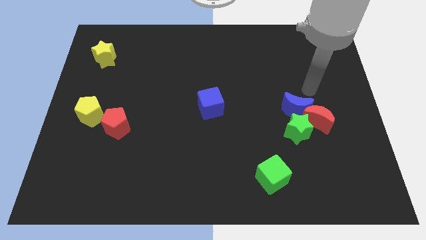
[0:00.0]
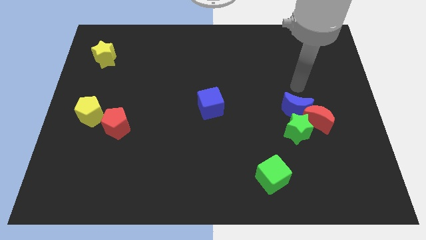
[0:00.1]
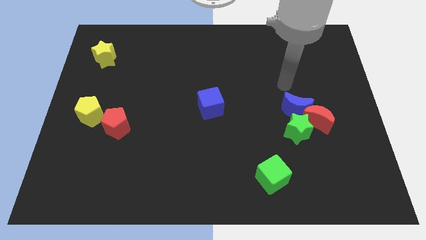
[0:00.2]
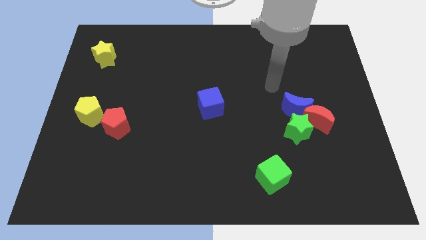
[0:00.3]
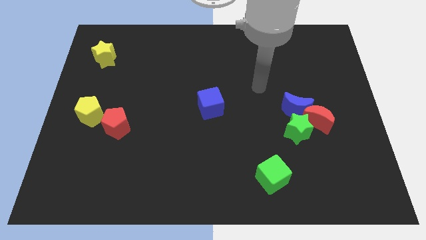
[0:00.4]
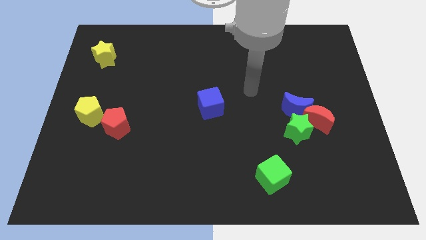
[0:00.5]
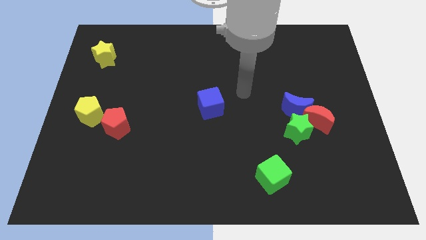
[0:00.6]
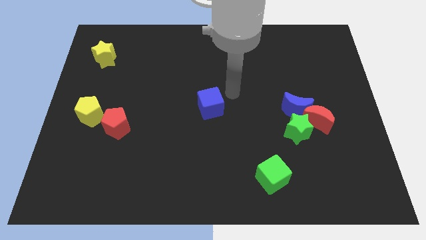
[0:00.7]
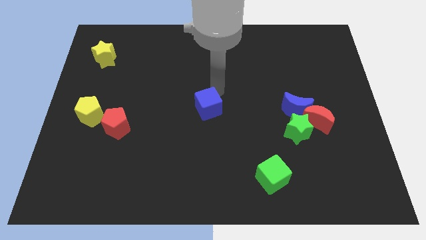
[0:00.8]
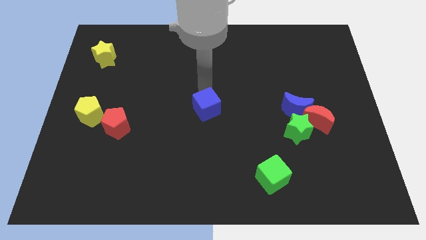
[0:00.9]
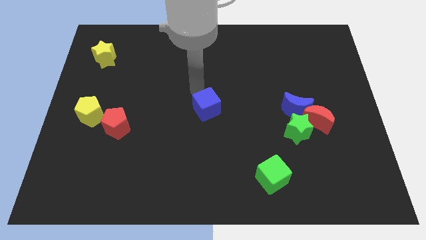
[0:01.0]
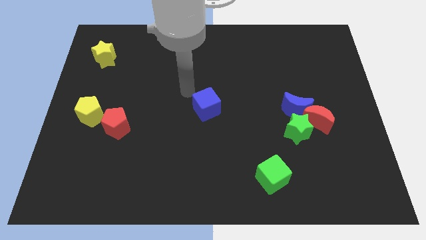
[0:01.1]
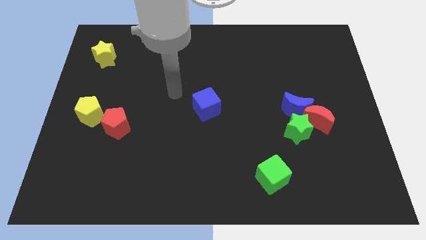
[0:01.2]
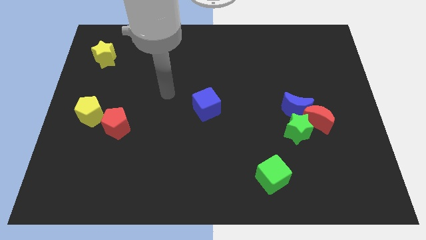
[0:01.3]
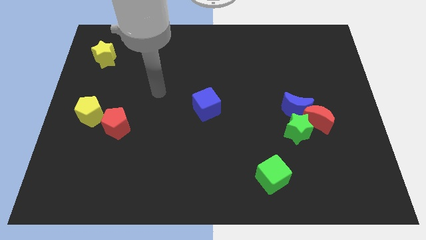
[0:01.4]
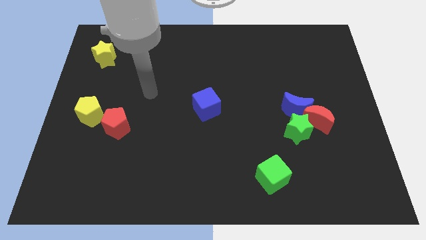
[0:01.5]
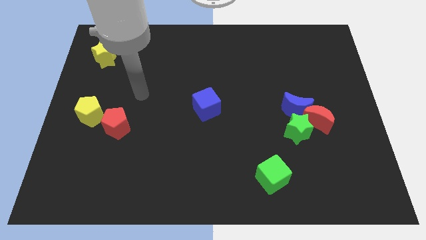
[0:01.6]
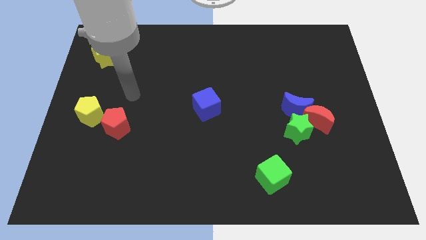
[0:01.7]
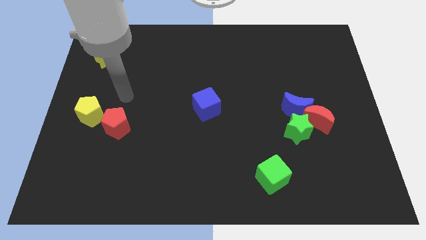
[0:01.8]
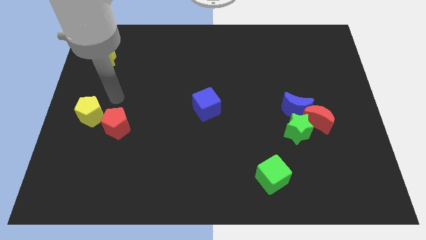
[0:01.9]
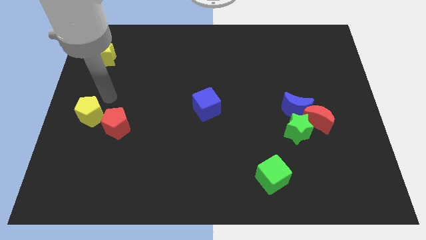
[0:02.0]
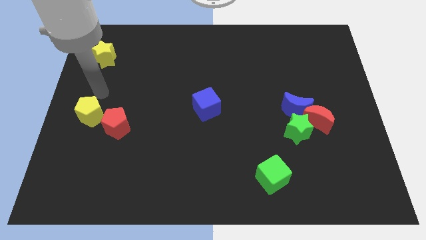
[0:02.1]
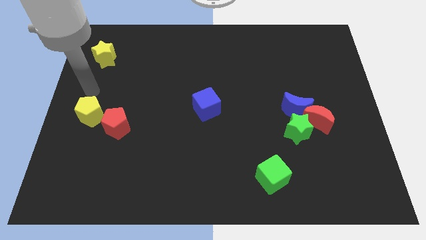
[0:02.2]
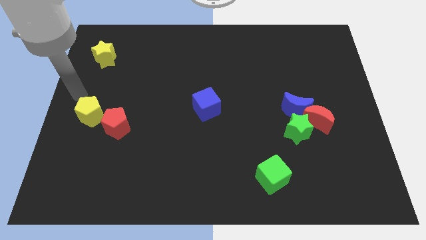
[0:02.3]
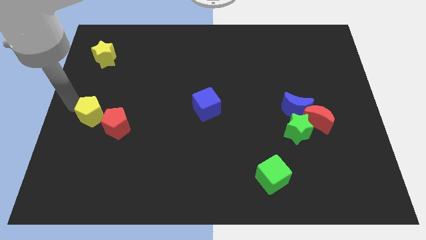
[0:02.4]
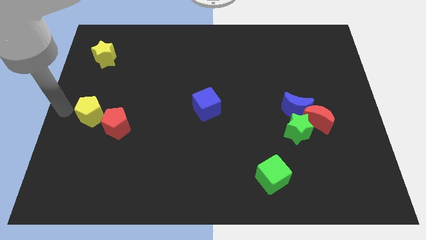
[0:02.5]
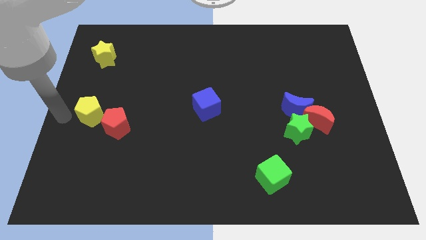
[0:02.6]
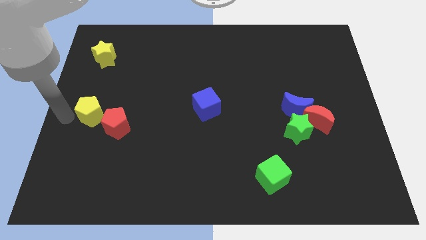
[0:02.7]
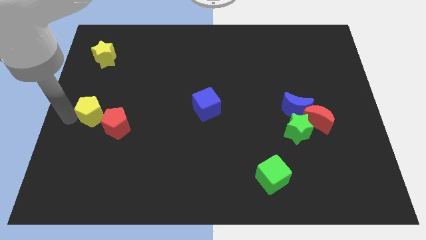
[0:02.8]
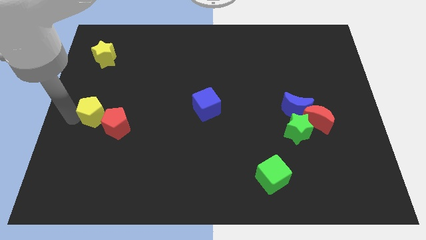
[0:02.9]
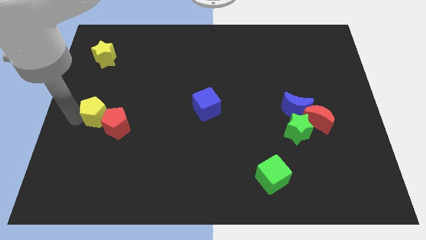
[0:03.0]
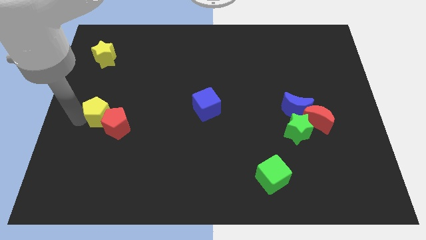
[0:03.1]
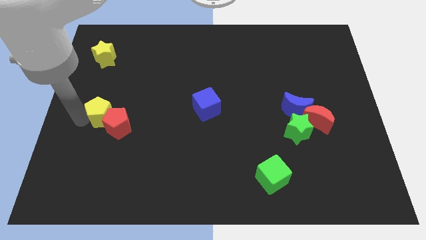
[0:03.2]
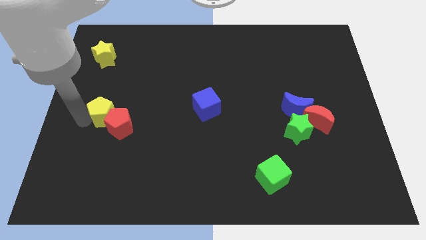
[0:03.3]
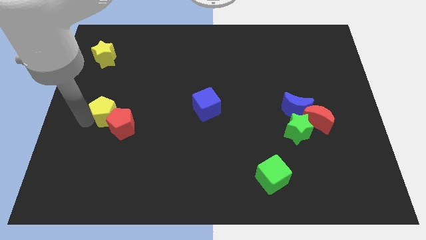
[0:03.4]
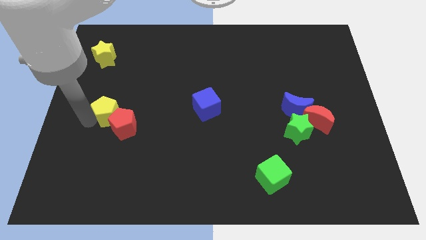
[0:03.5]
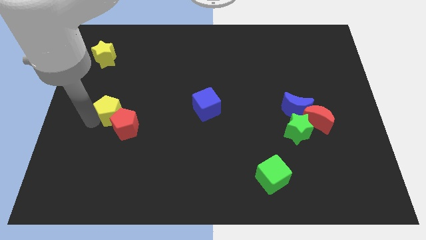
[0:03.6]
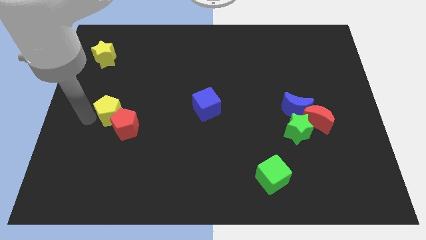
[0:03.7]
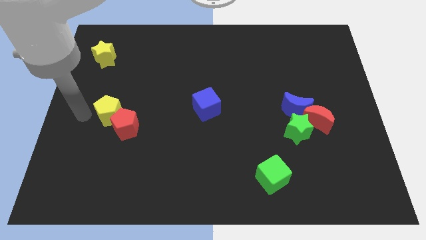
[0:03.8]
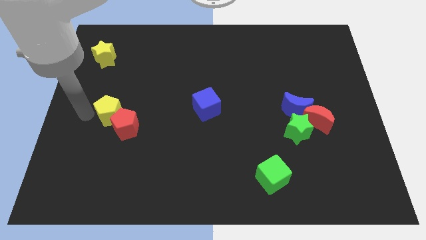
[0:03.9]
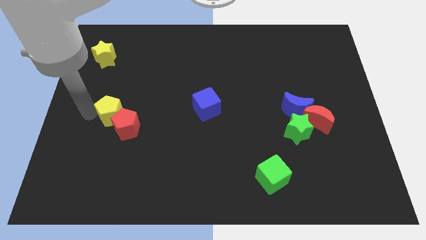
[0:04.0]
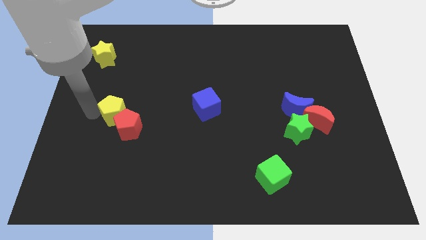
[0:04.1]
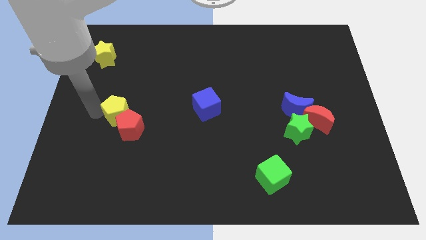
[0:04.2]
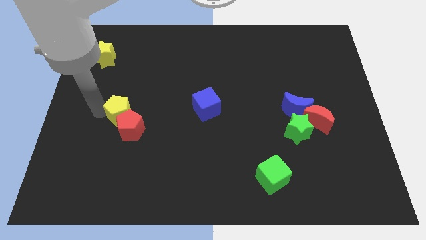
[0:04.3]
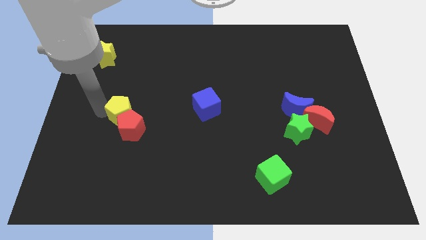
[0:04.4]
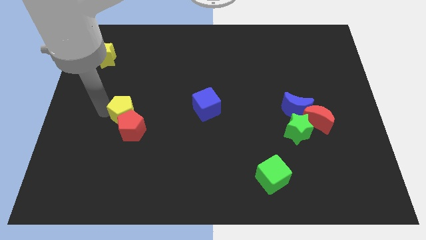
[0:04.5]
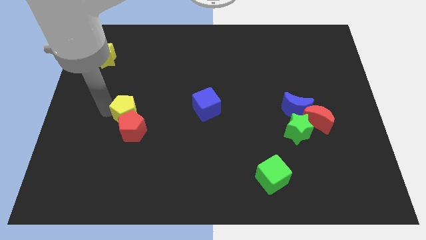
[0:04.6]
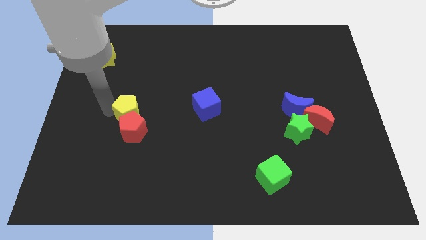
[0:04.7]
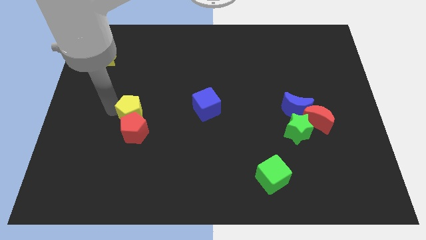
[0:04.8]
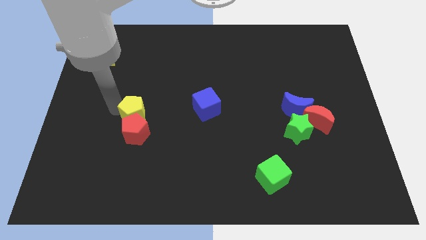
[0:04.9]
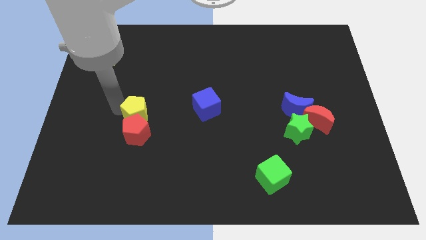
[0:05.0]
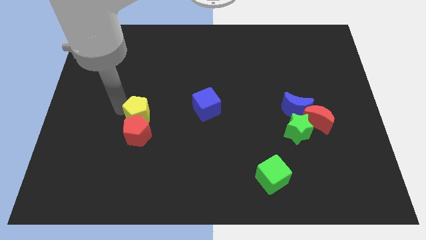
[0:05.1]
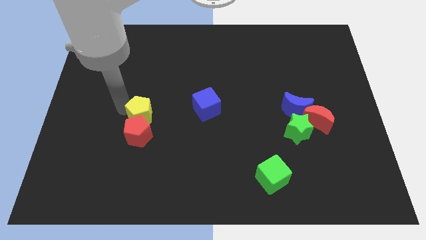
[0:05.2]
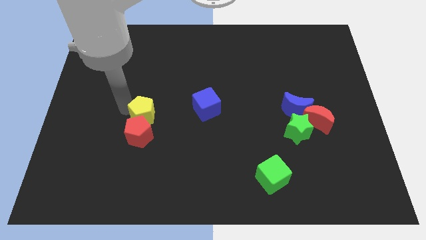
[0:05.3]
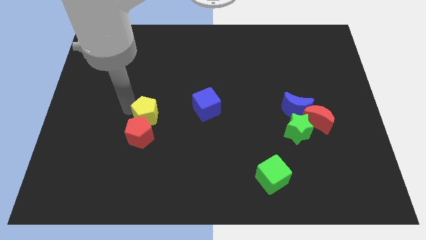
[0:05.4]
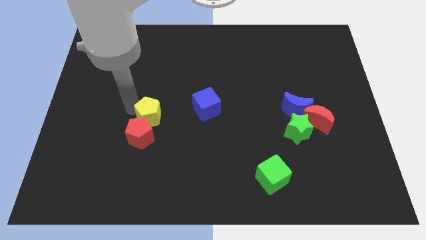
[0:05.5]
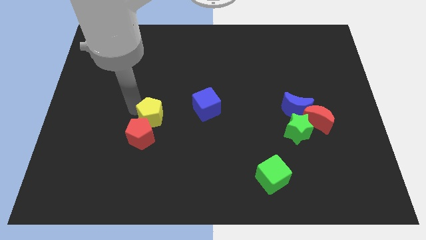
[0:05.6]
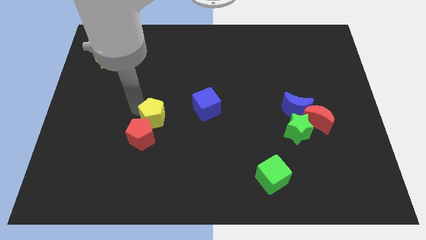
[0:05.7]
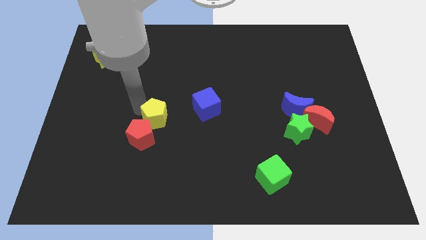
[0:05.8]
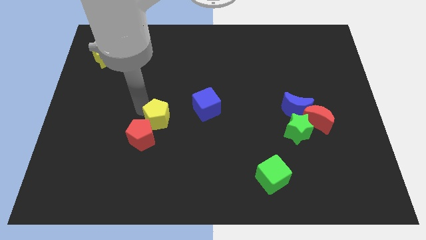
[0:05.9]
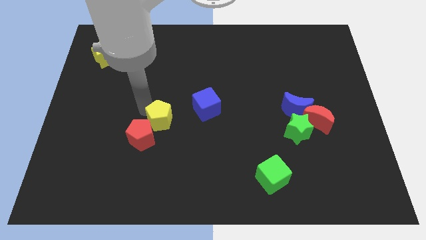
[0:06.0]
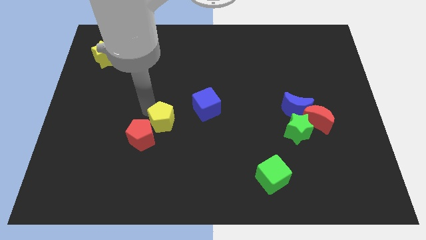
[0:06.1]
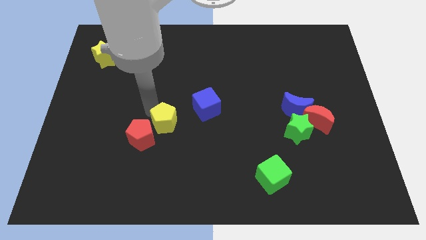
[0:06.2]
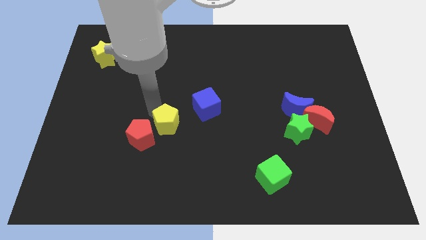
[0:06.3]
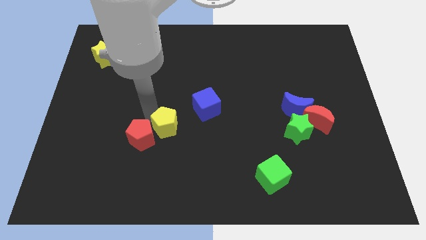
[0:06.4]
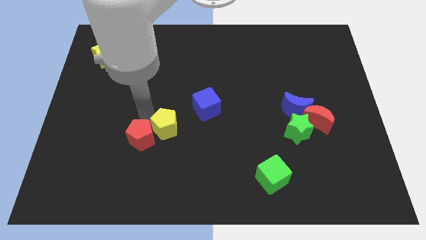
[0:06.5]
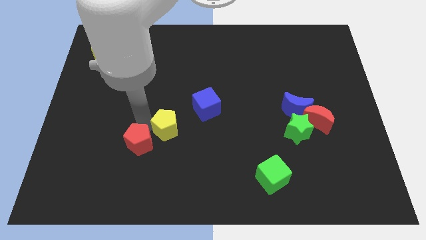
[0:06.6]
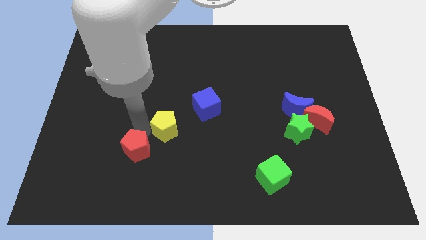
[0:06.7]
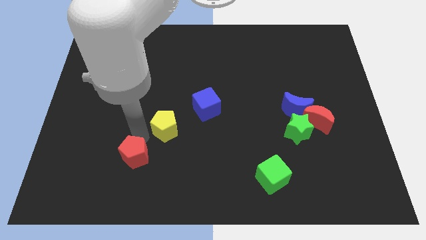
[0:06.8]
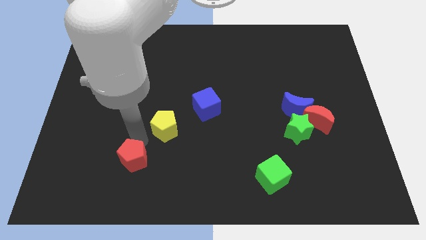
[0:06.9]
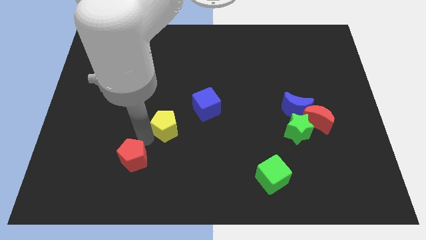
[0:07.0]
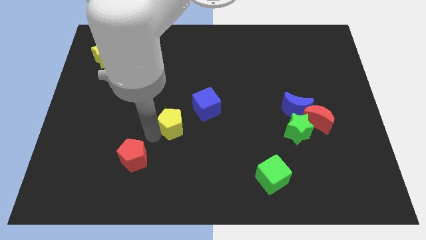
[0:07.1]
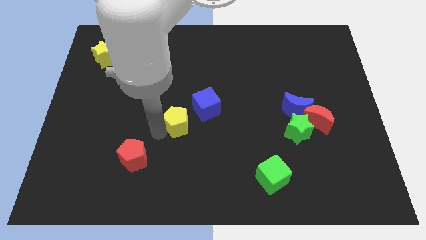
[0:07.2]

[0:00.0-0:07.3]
push the yellow pentagon to the right

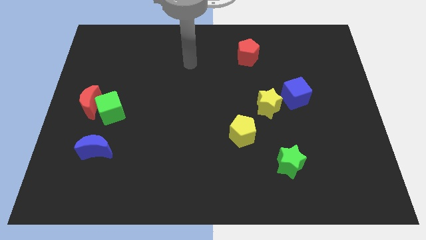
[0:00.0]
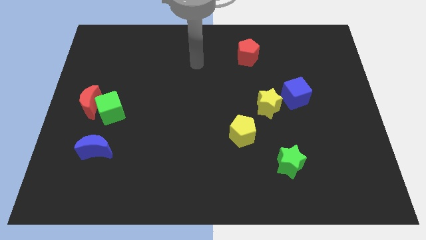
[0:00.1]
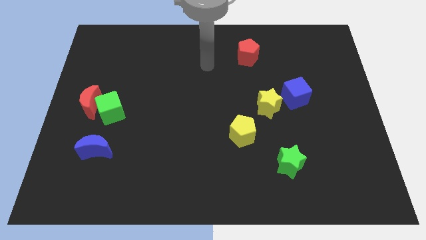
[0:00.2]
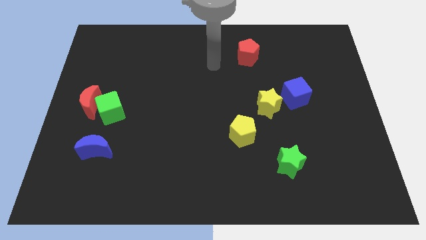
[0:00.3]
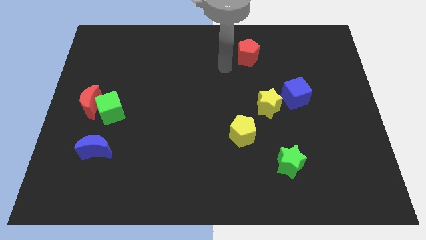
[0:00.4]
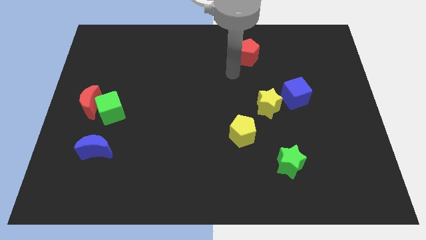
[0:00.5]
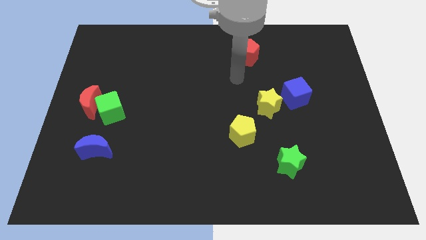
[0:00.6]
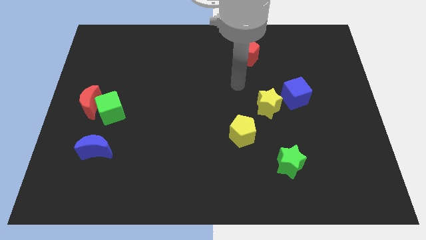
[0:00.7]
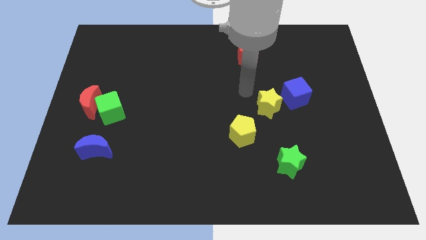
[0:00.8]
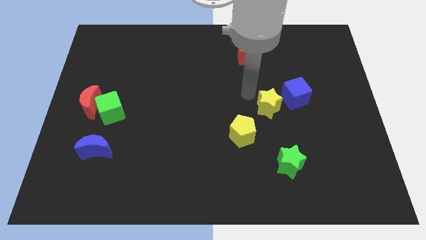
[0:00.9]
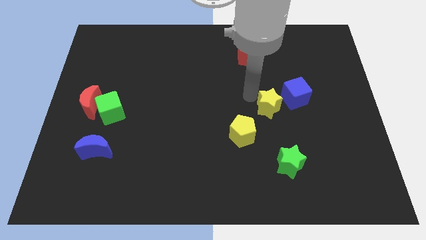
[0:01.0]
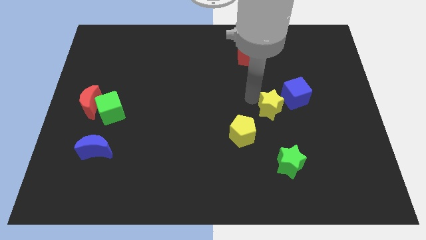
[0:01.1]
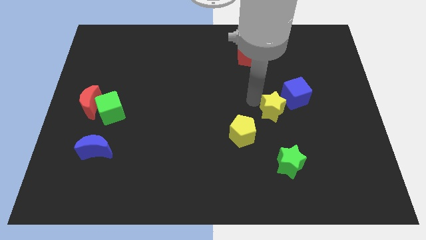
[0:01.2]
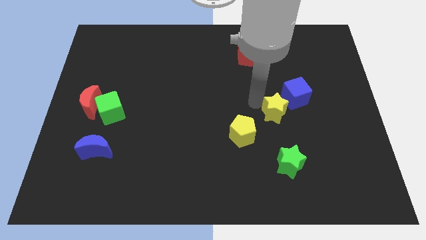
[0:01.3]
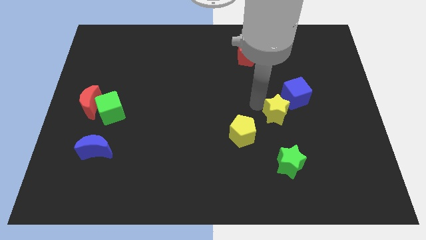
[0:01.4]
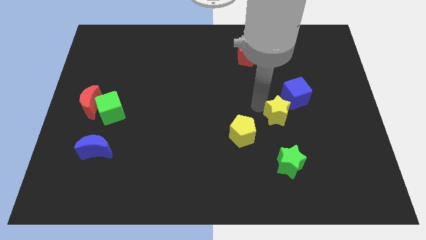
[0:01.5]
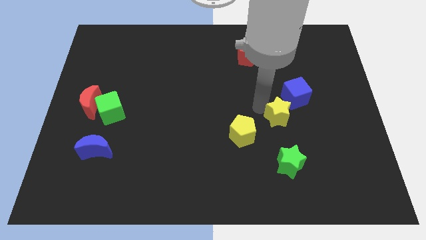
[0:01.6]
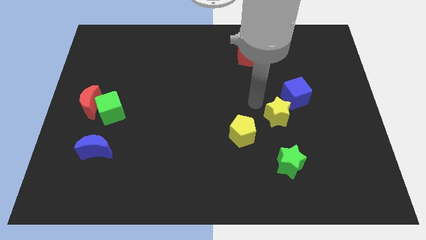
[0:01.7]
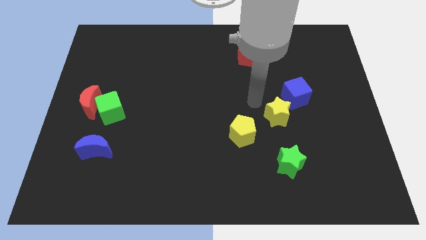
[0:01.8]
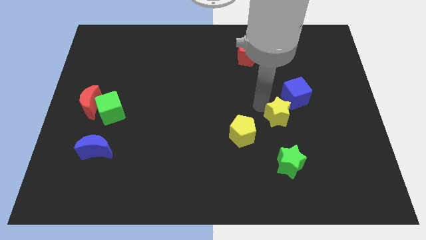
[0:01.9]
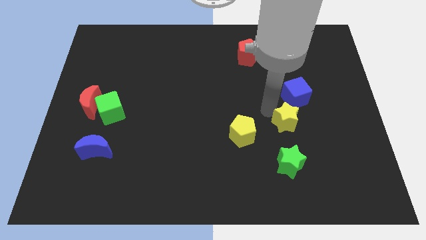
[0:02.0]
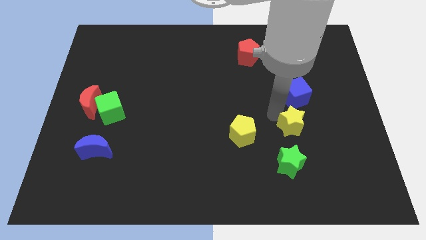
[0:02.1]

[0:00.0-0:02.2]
slide the yellow star down and right diagonally a bit
